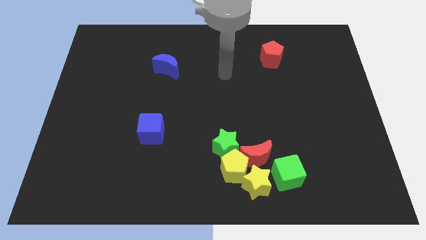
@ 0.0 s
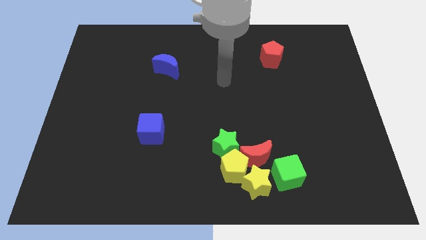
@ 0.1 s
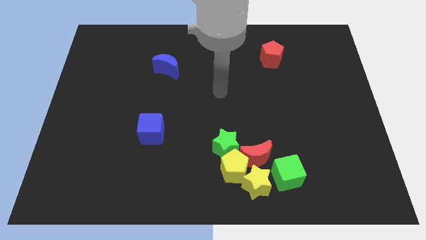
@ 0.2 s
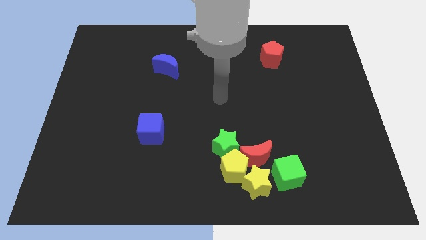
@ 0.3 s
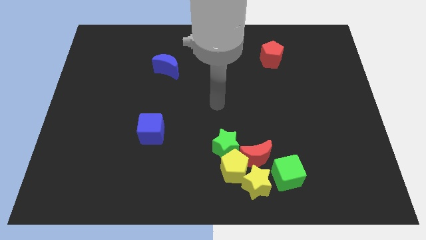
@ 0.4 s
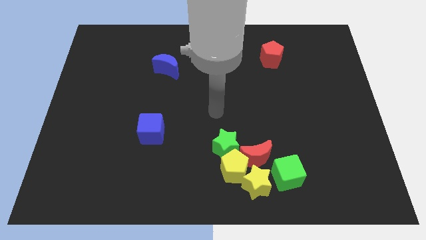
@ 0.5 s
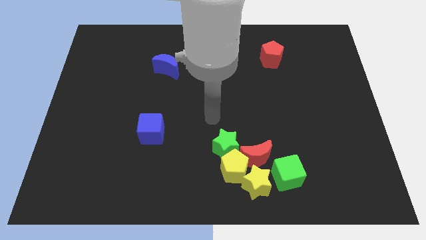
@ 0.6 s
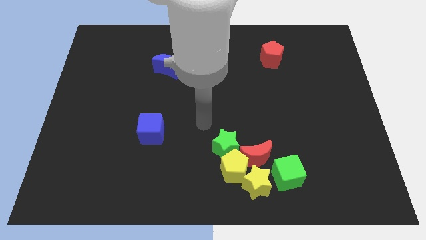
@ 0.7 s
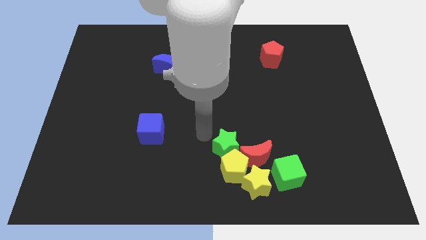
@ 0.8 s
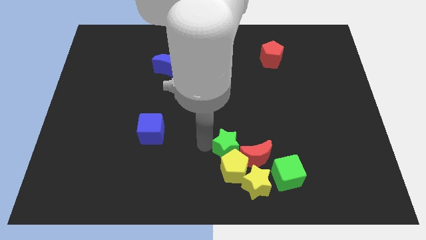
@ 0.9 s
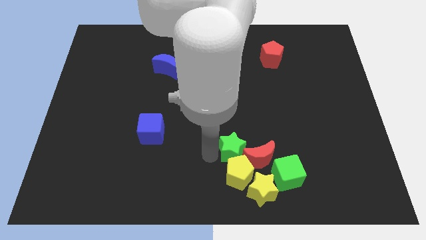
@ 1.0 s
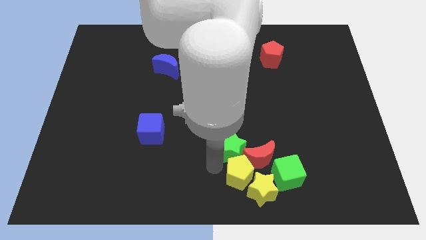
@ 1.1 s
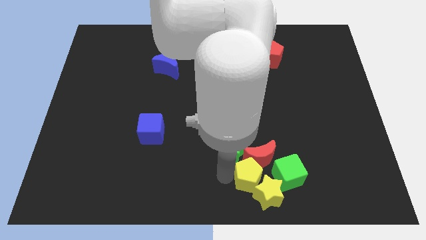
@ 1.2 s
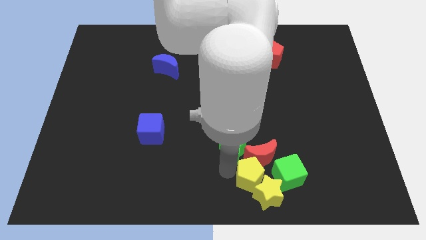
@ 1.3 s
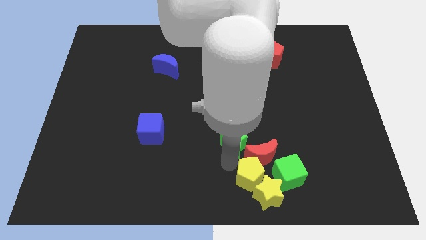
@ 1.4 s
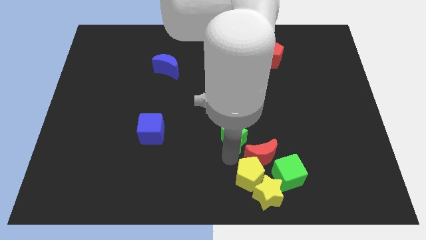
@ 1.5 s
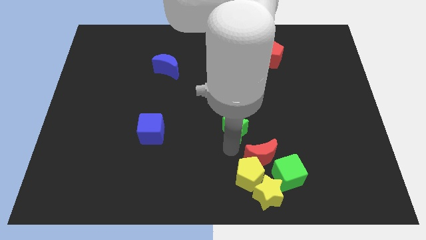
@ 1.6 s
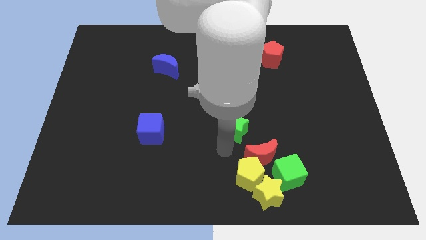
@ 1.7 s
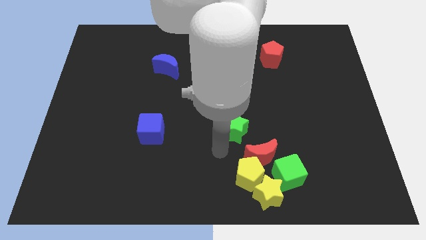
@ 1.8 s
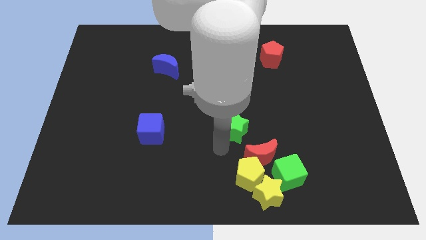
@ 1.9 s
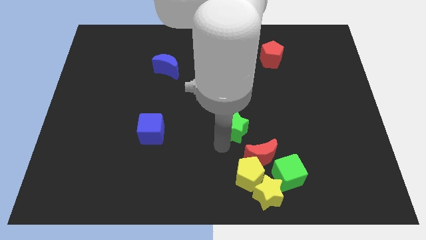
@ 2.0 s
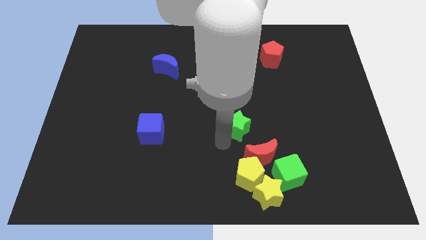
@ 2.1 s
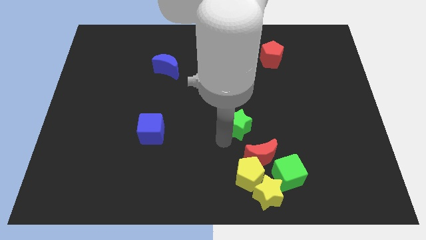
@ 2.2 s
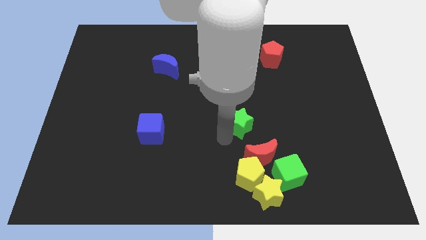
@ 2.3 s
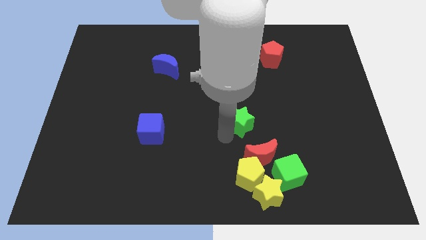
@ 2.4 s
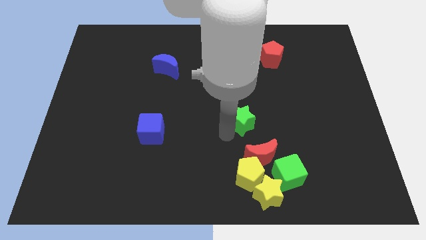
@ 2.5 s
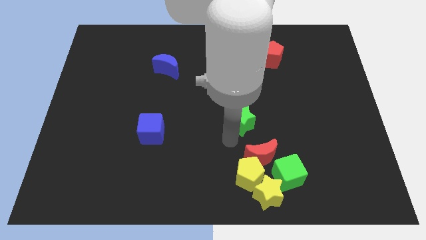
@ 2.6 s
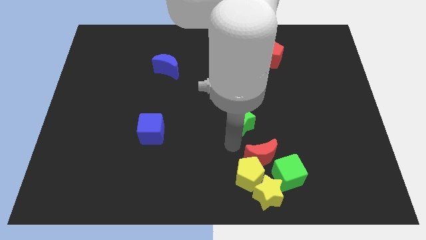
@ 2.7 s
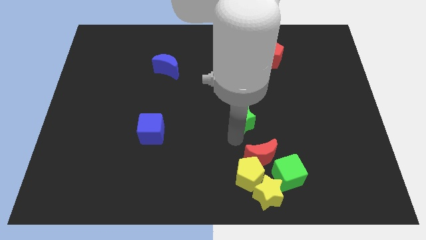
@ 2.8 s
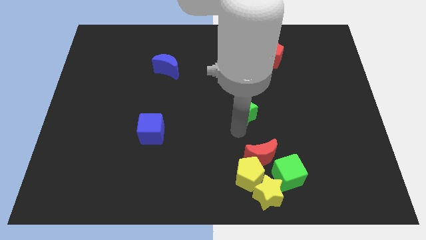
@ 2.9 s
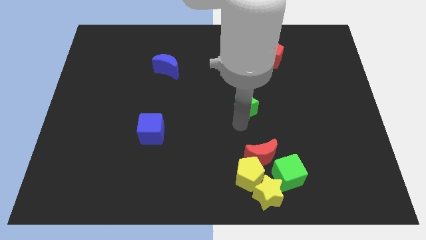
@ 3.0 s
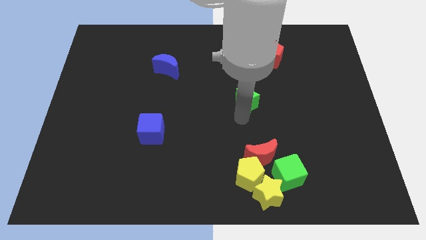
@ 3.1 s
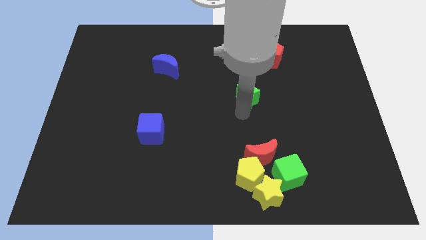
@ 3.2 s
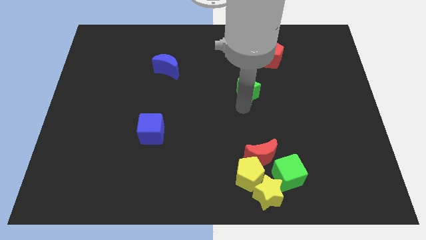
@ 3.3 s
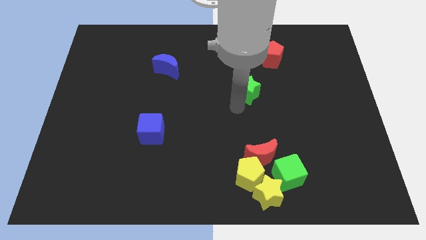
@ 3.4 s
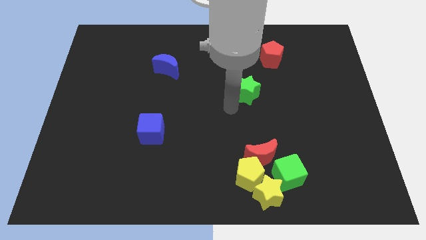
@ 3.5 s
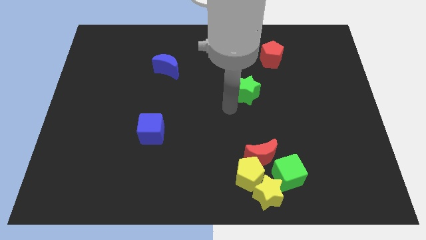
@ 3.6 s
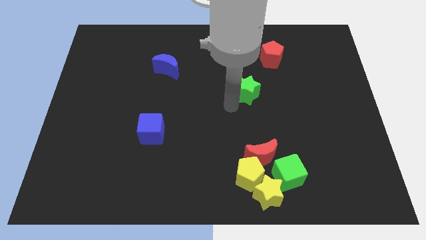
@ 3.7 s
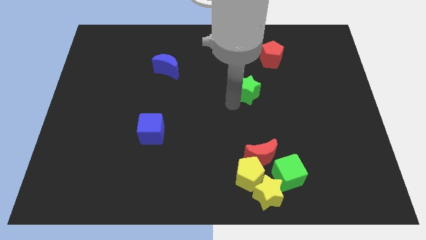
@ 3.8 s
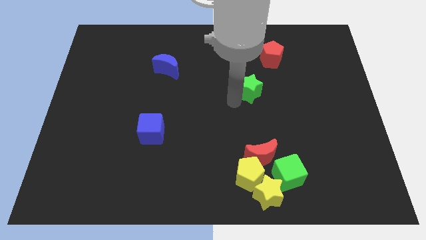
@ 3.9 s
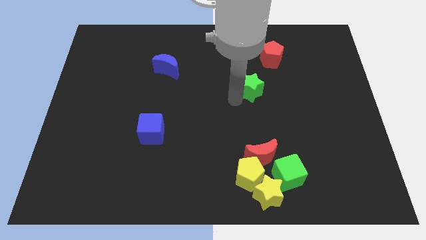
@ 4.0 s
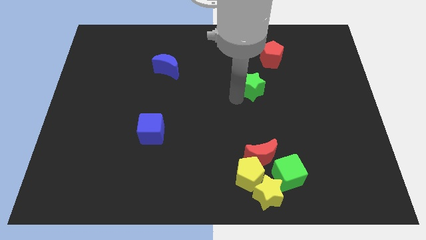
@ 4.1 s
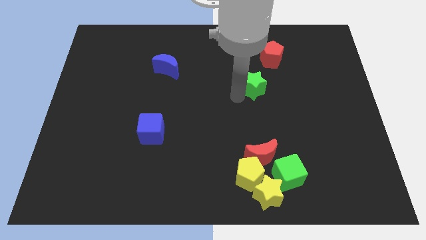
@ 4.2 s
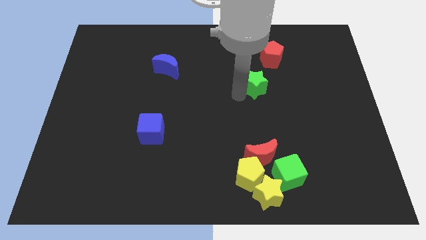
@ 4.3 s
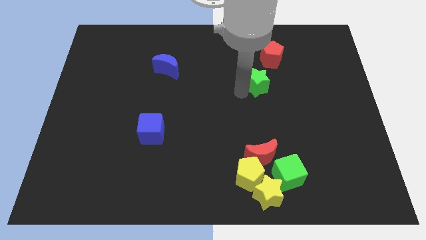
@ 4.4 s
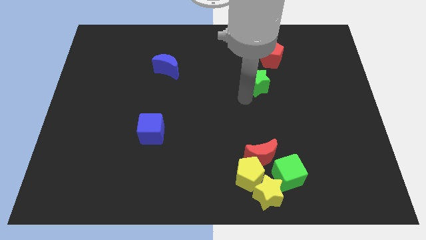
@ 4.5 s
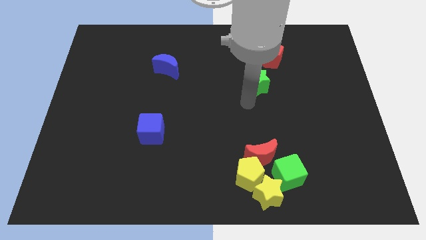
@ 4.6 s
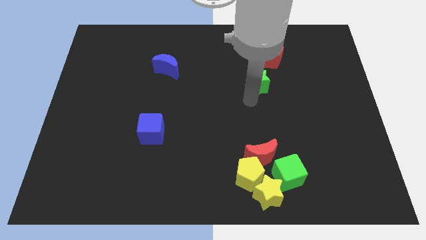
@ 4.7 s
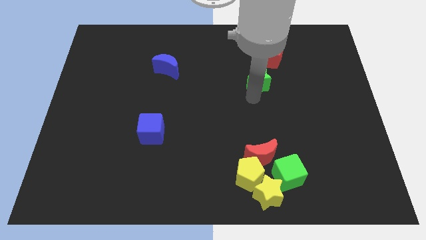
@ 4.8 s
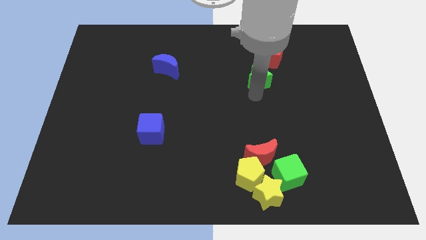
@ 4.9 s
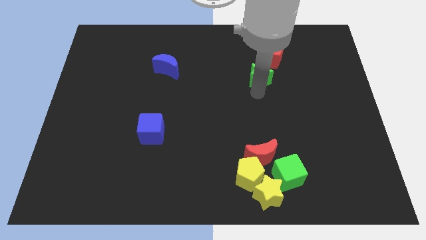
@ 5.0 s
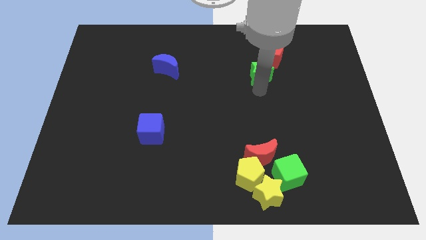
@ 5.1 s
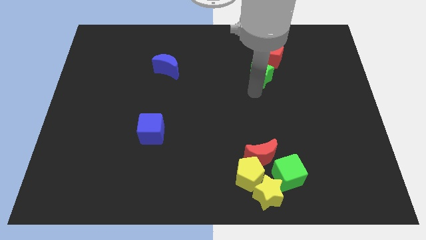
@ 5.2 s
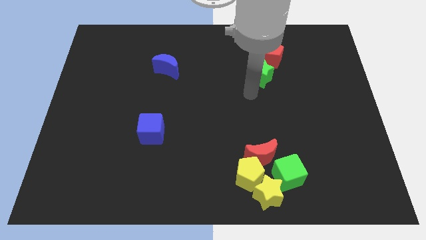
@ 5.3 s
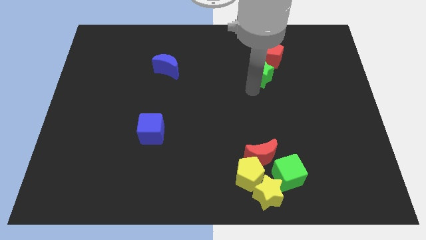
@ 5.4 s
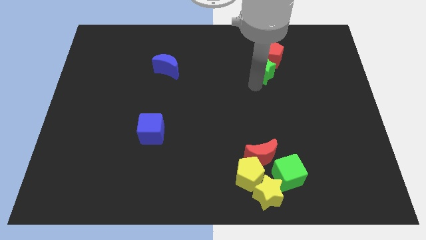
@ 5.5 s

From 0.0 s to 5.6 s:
push the green star to the red pentagon

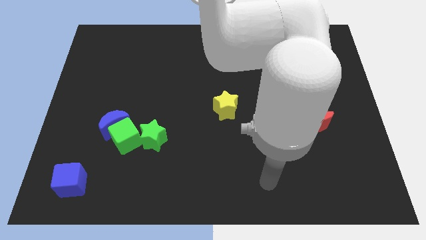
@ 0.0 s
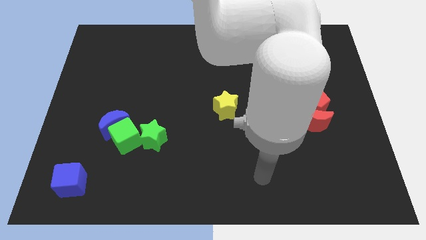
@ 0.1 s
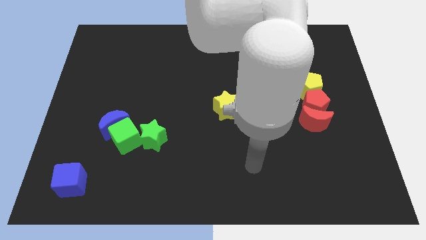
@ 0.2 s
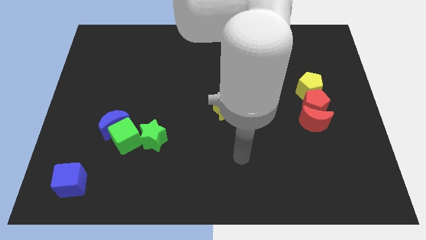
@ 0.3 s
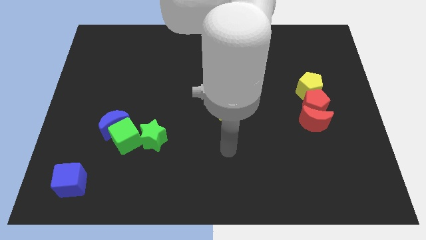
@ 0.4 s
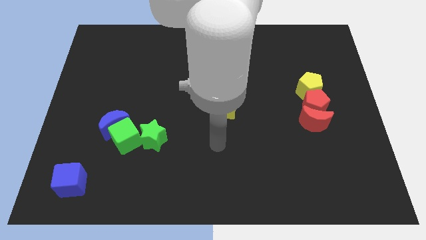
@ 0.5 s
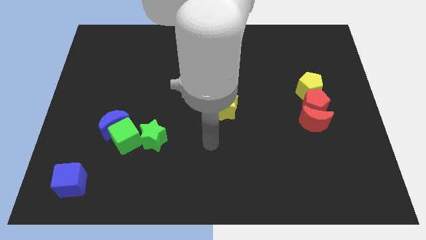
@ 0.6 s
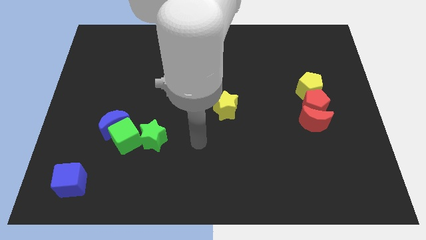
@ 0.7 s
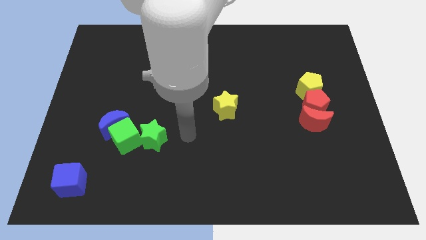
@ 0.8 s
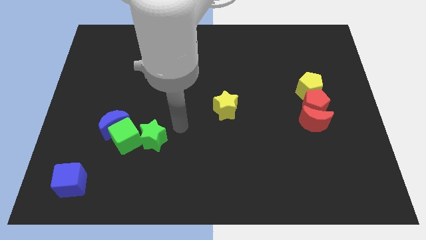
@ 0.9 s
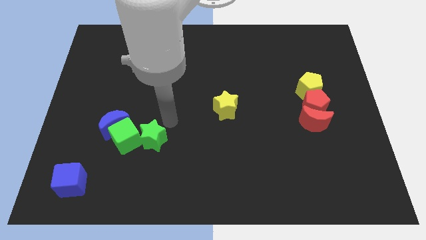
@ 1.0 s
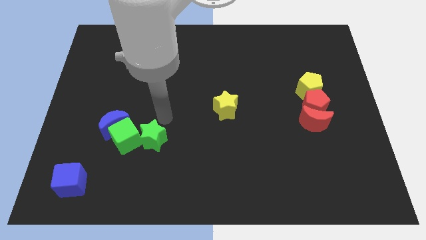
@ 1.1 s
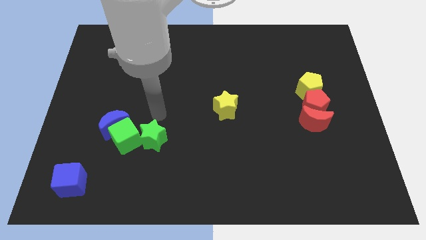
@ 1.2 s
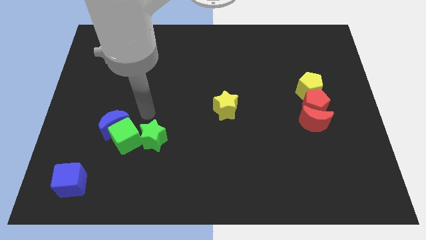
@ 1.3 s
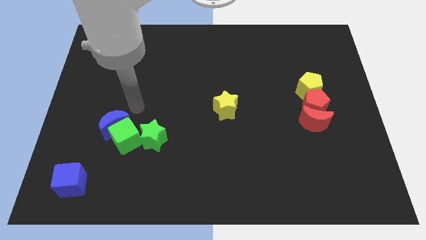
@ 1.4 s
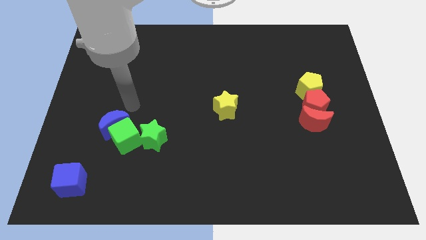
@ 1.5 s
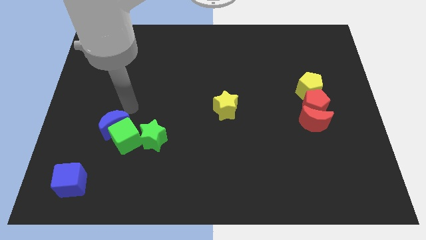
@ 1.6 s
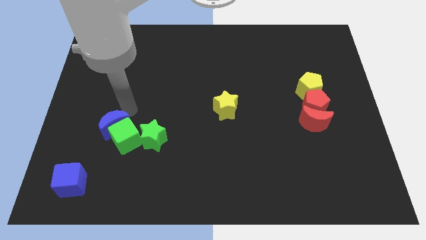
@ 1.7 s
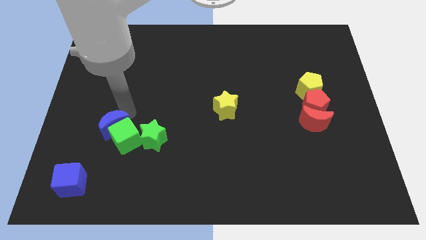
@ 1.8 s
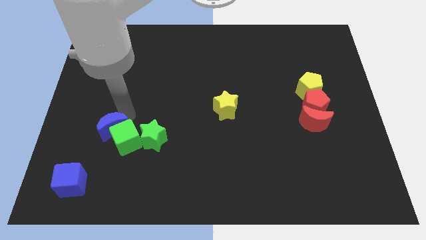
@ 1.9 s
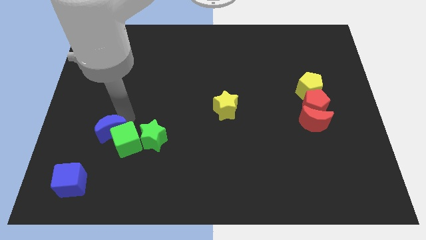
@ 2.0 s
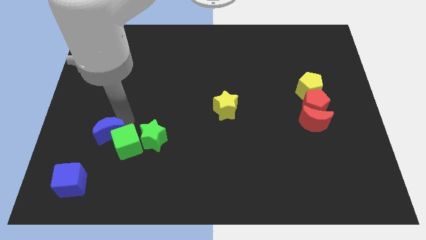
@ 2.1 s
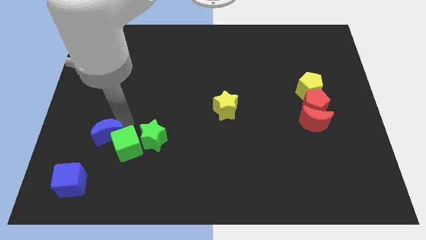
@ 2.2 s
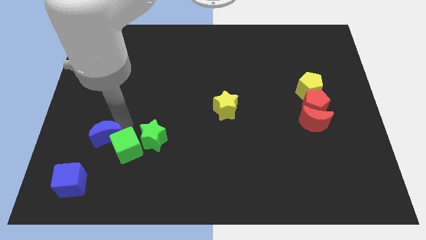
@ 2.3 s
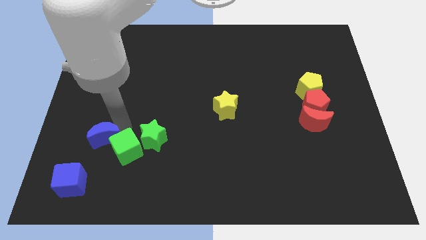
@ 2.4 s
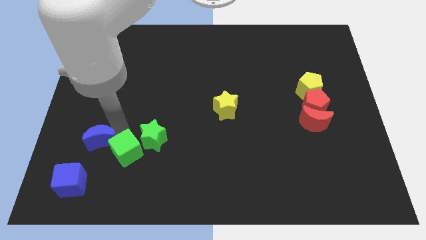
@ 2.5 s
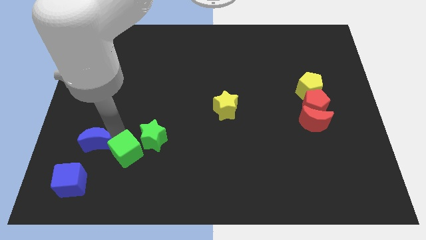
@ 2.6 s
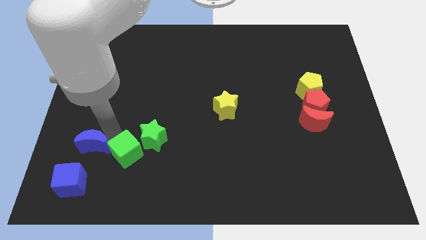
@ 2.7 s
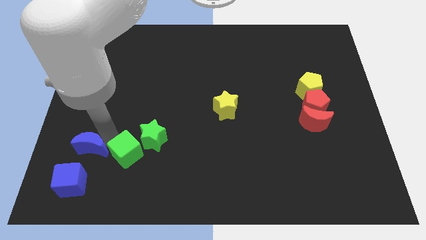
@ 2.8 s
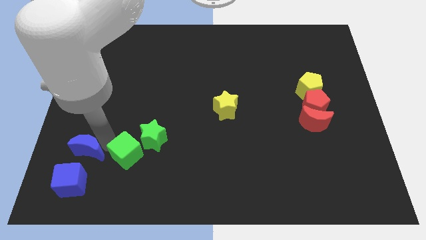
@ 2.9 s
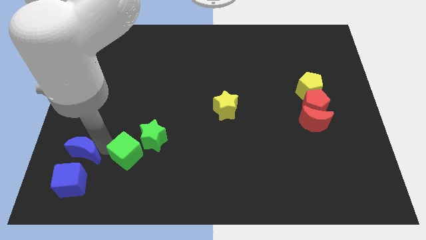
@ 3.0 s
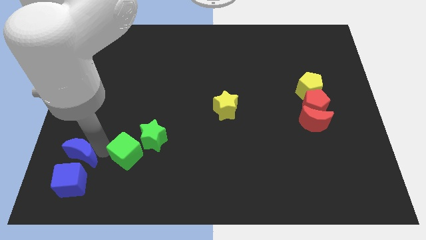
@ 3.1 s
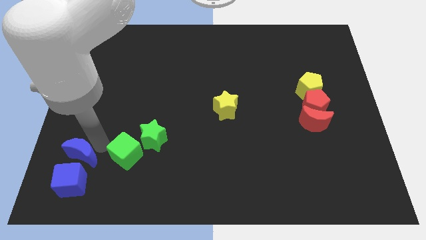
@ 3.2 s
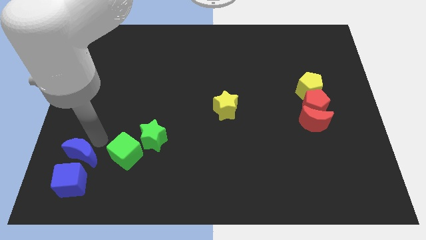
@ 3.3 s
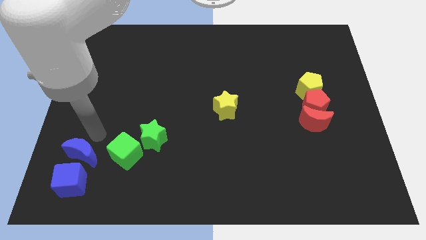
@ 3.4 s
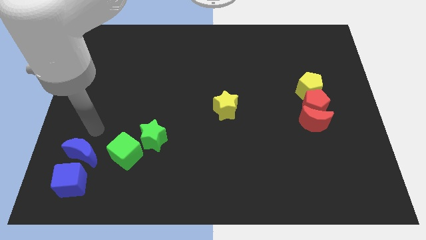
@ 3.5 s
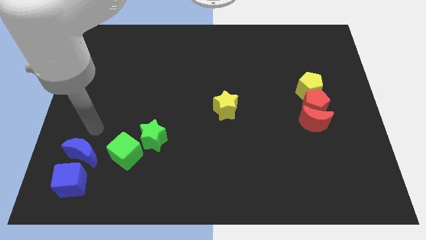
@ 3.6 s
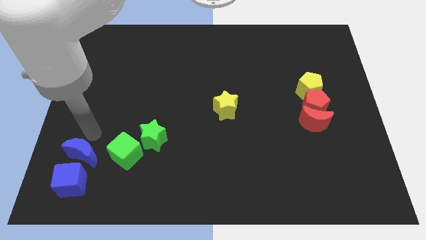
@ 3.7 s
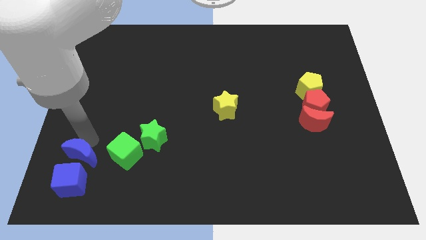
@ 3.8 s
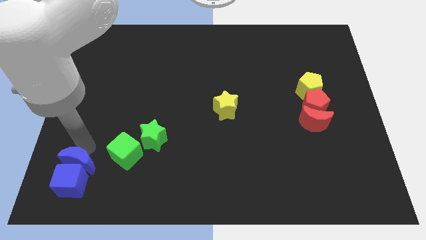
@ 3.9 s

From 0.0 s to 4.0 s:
put the blue moon next to the blue cube
